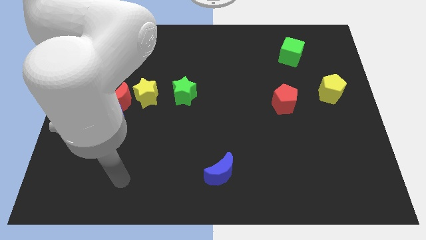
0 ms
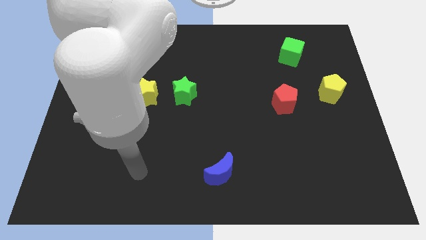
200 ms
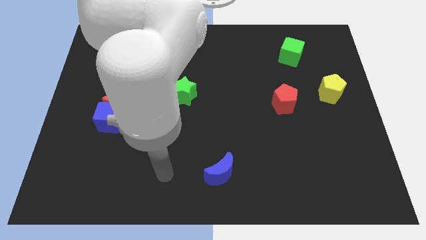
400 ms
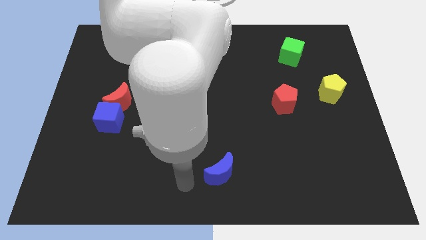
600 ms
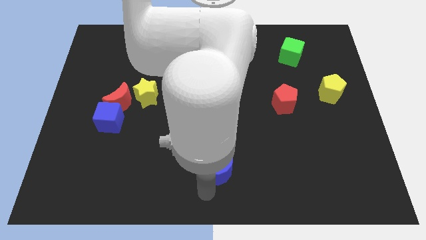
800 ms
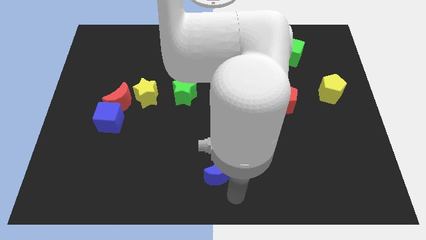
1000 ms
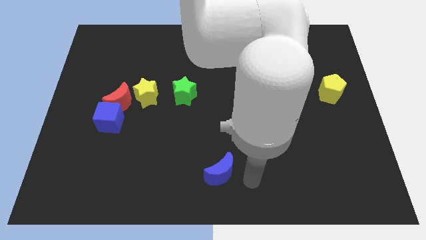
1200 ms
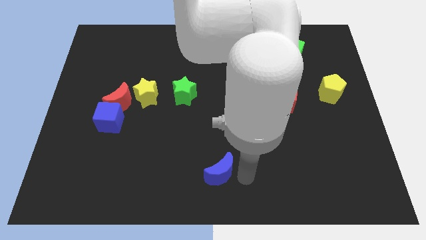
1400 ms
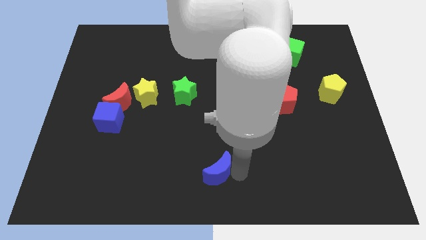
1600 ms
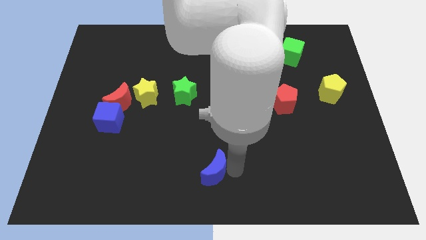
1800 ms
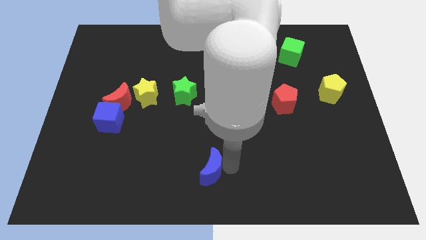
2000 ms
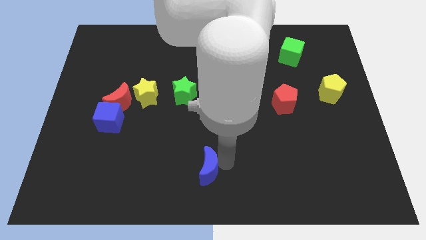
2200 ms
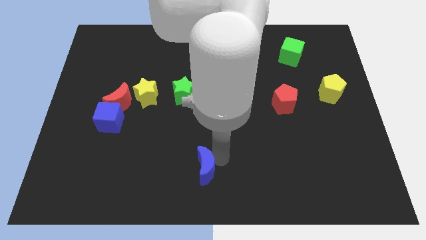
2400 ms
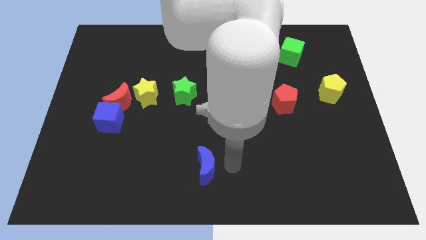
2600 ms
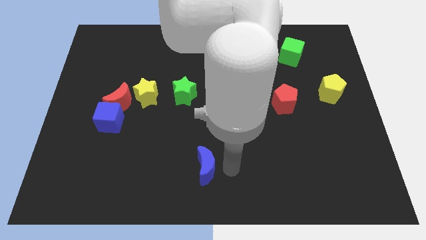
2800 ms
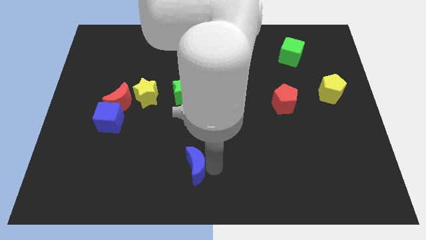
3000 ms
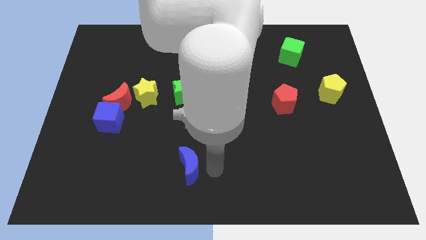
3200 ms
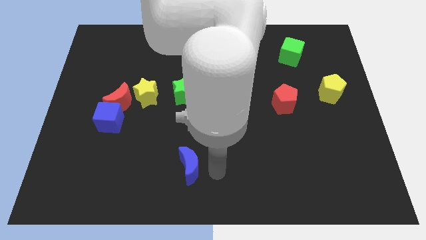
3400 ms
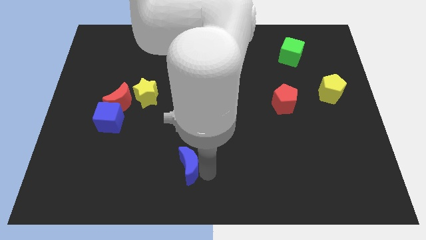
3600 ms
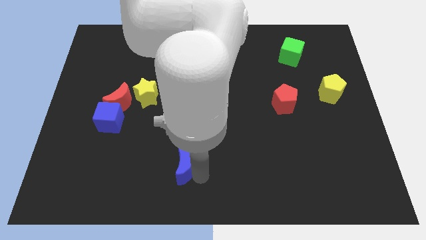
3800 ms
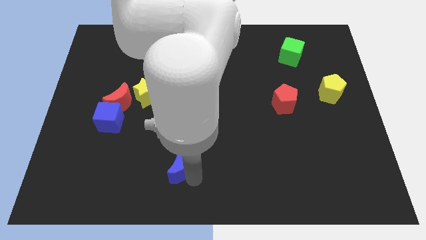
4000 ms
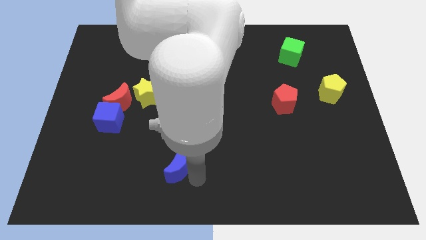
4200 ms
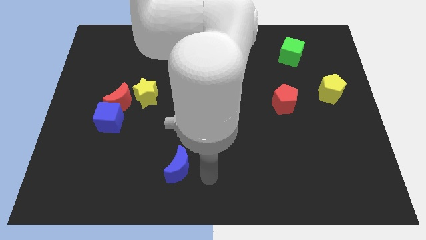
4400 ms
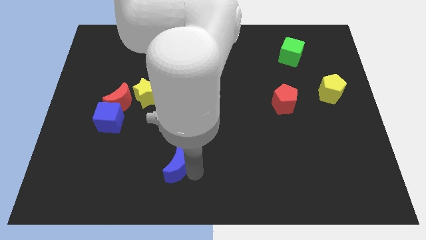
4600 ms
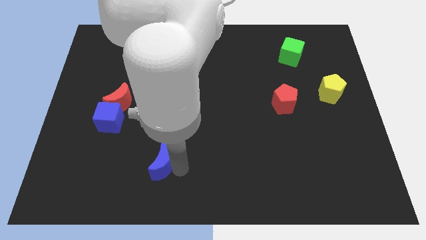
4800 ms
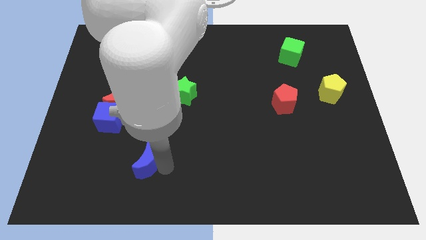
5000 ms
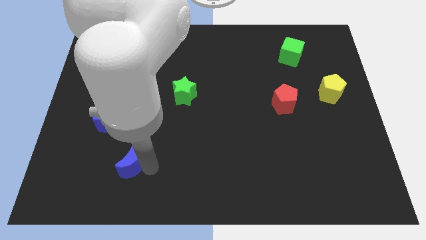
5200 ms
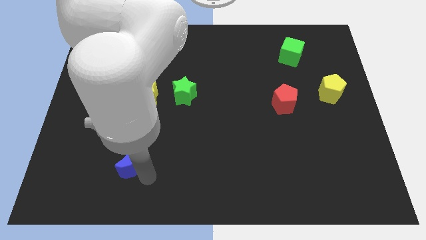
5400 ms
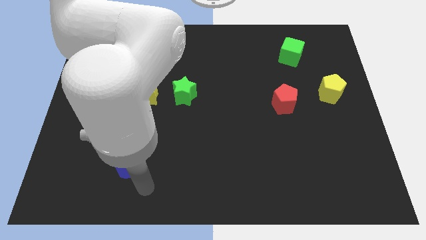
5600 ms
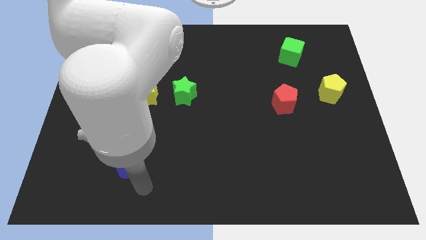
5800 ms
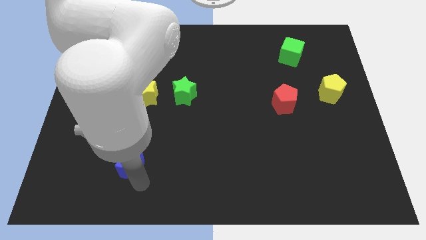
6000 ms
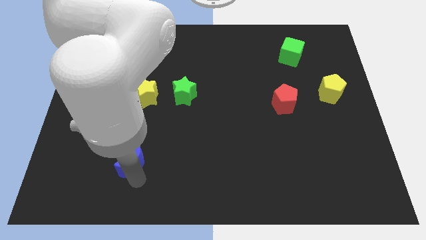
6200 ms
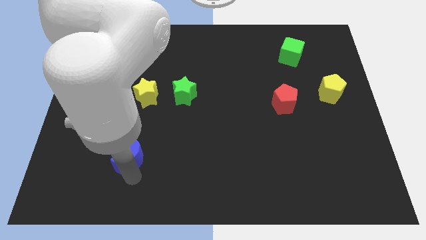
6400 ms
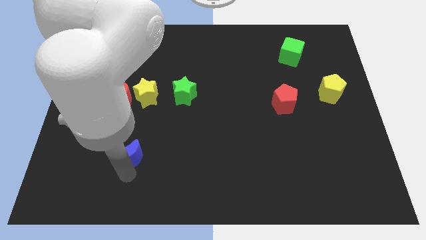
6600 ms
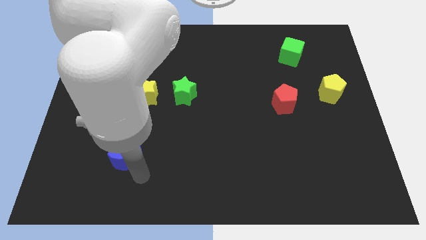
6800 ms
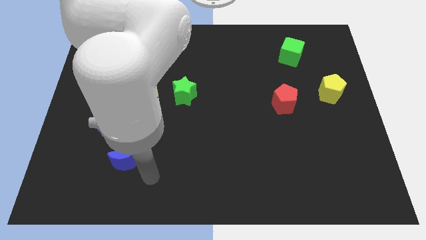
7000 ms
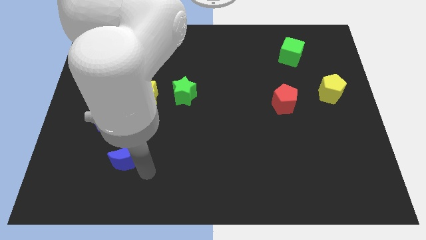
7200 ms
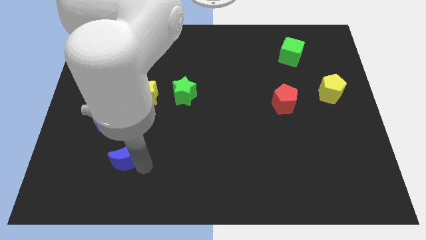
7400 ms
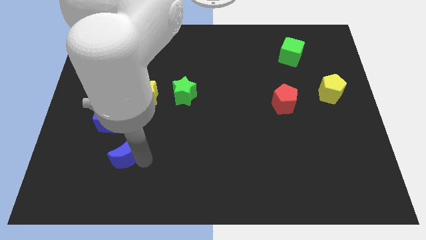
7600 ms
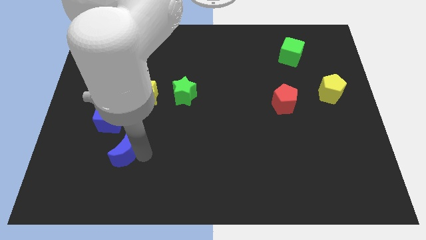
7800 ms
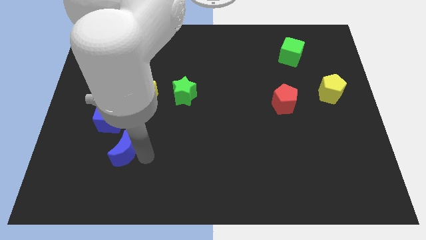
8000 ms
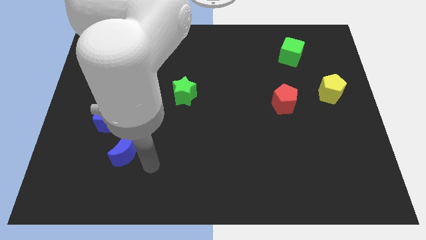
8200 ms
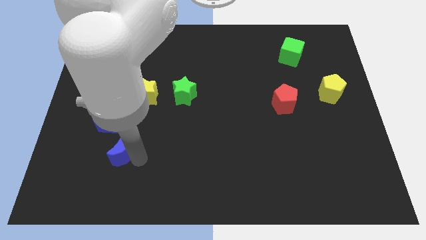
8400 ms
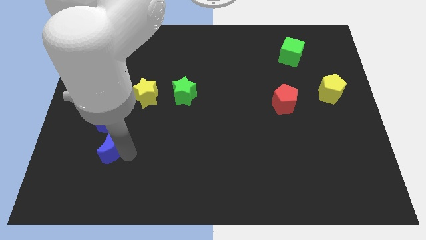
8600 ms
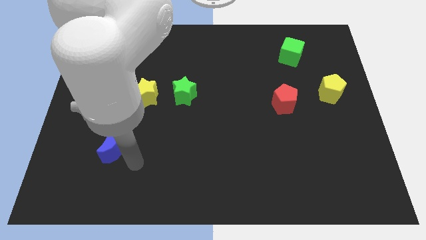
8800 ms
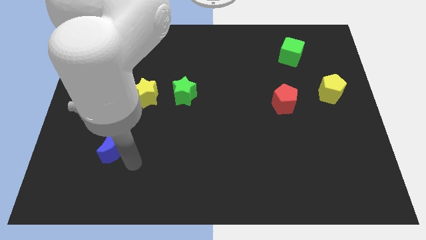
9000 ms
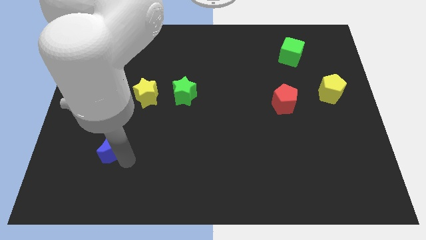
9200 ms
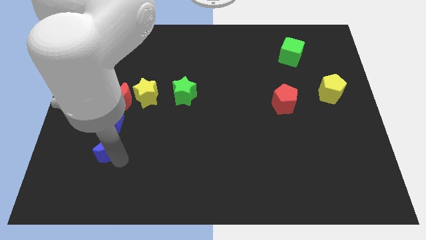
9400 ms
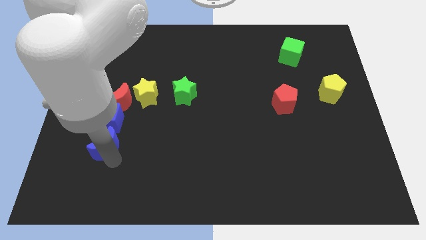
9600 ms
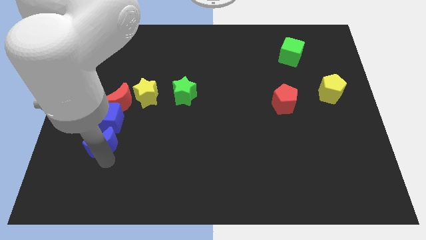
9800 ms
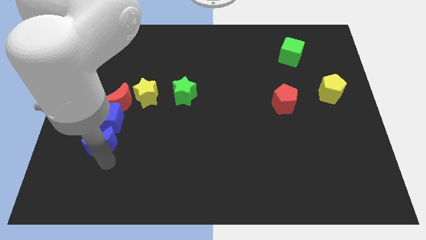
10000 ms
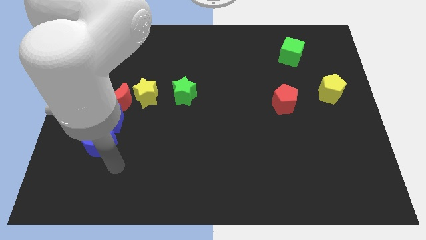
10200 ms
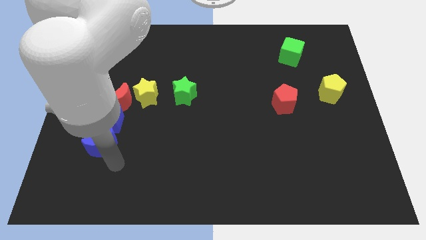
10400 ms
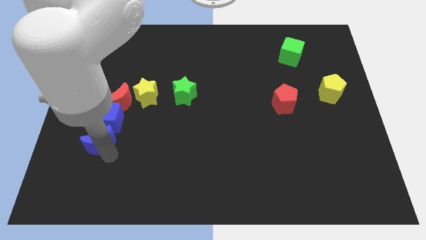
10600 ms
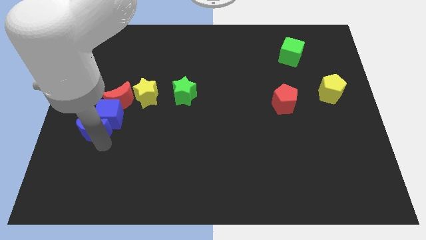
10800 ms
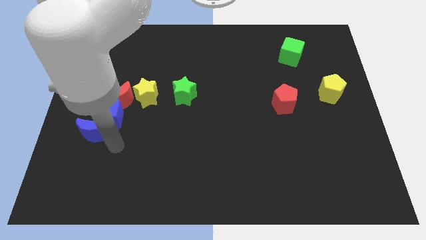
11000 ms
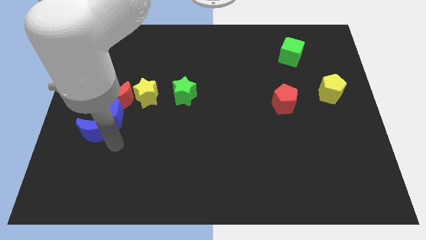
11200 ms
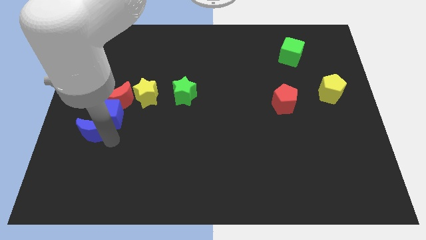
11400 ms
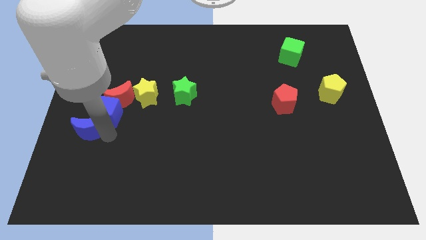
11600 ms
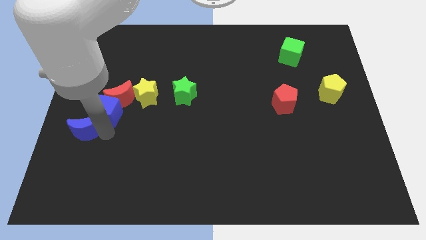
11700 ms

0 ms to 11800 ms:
slide the blue moon to the center left

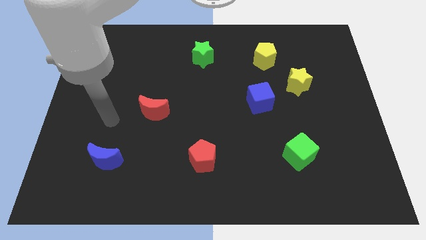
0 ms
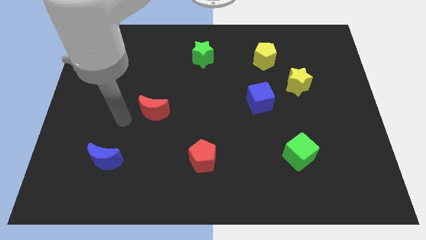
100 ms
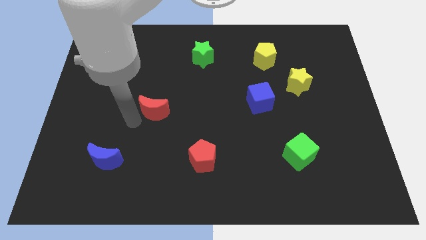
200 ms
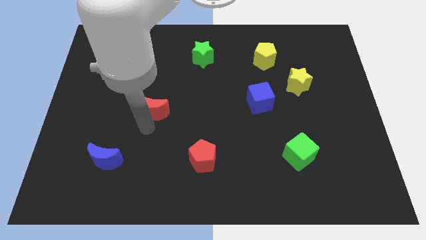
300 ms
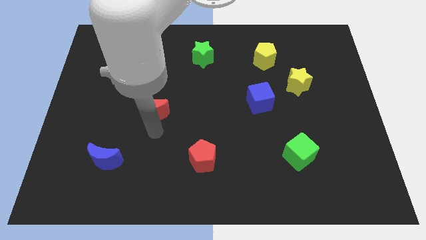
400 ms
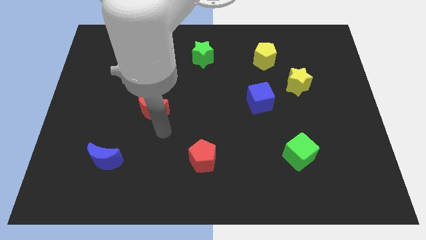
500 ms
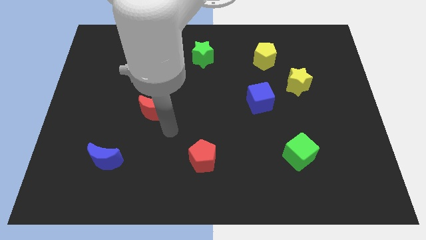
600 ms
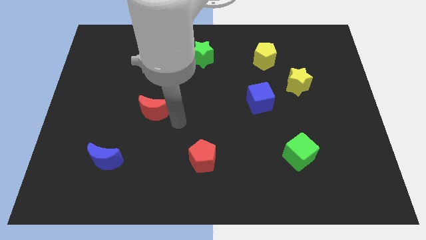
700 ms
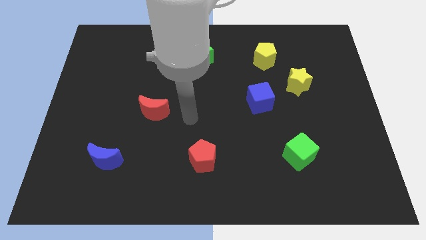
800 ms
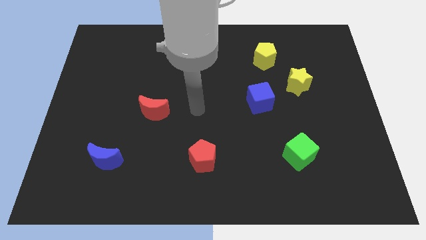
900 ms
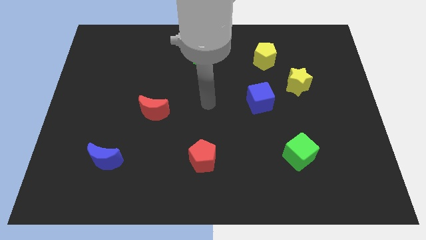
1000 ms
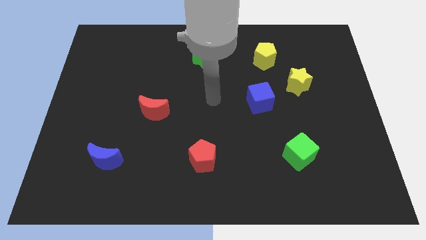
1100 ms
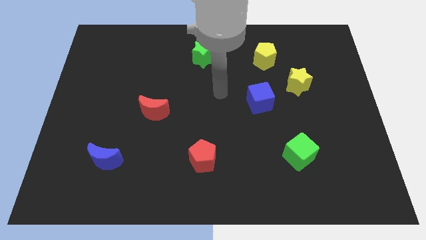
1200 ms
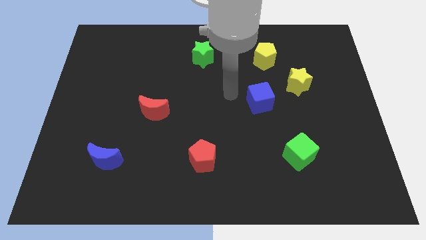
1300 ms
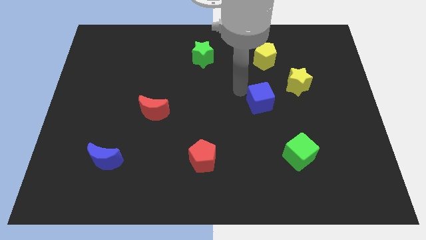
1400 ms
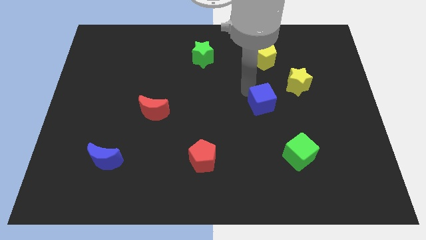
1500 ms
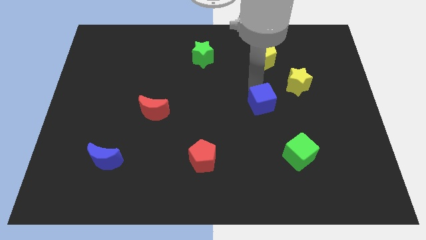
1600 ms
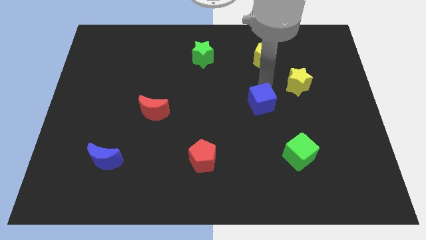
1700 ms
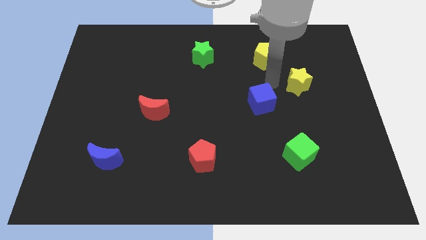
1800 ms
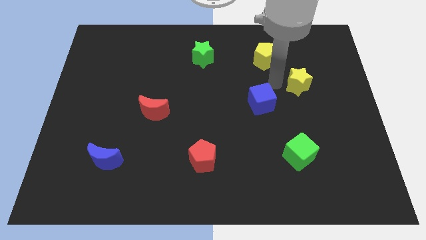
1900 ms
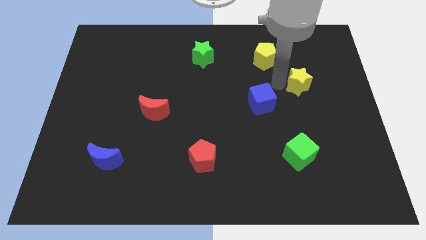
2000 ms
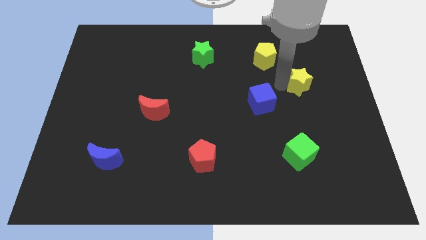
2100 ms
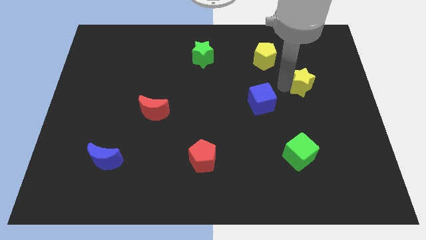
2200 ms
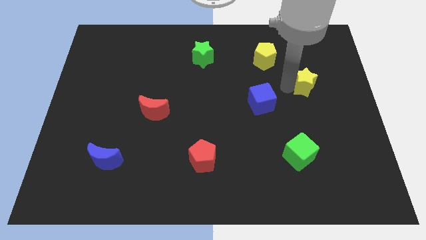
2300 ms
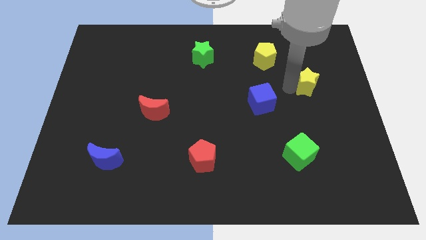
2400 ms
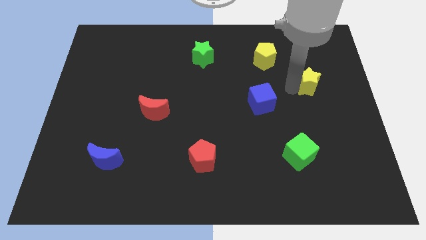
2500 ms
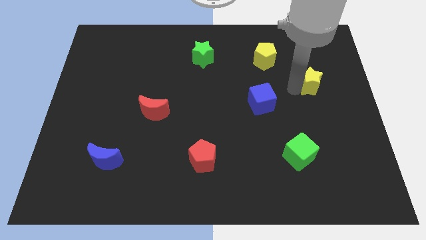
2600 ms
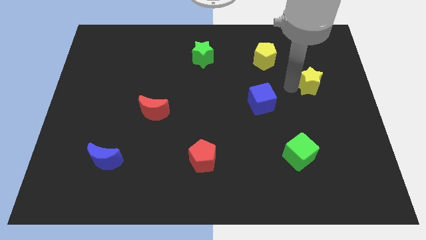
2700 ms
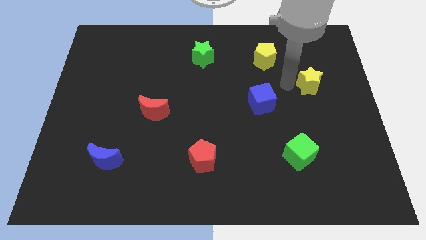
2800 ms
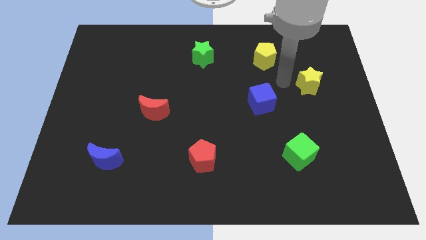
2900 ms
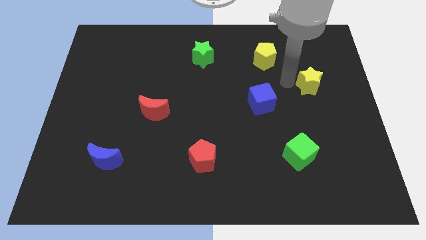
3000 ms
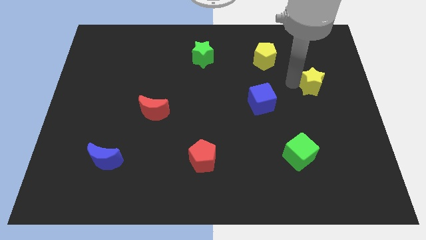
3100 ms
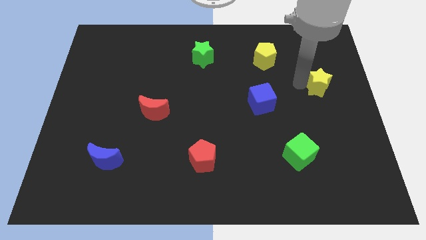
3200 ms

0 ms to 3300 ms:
push the yellow star to the right side
